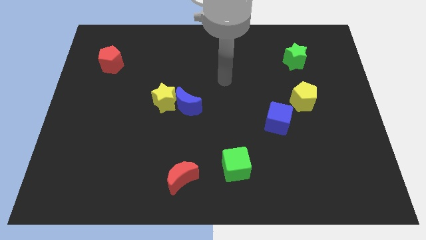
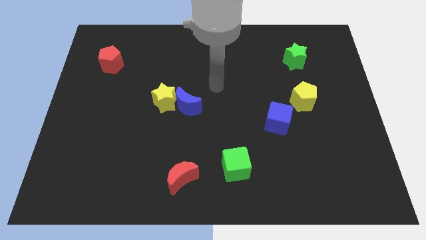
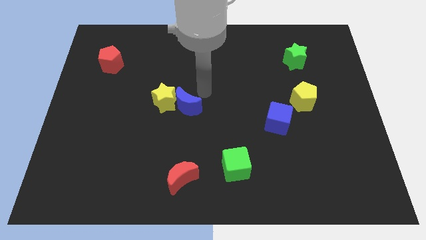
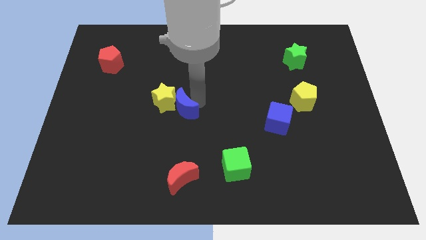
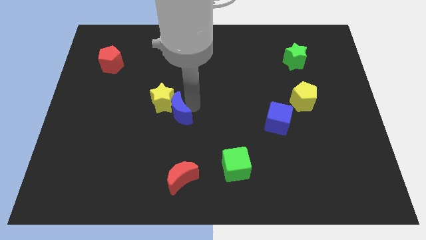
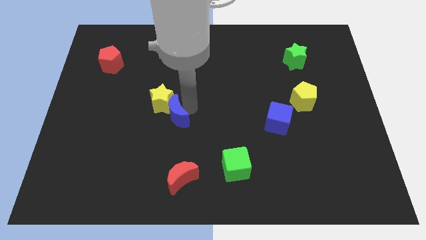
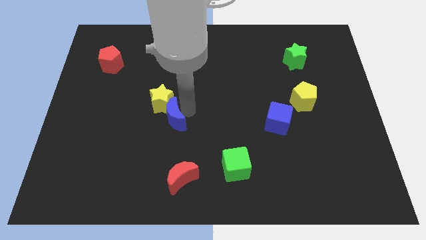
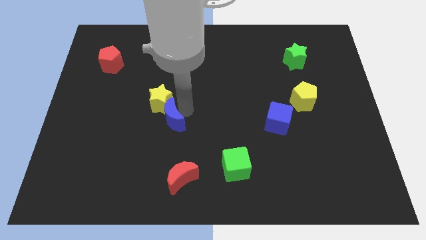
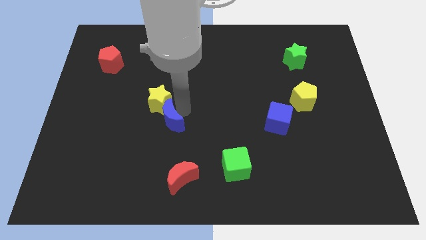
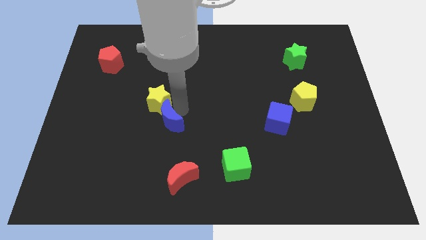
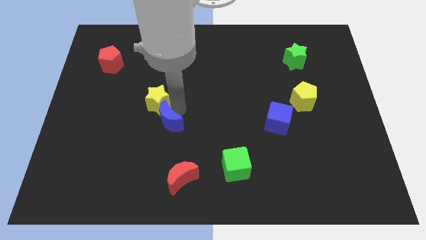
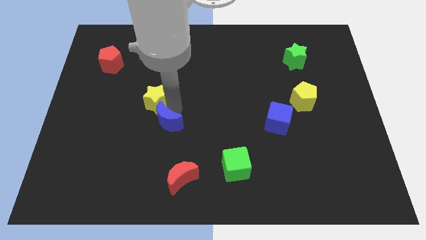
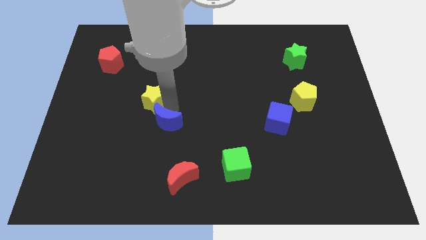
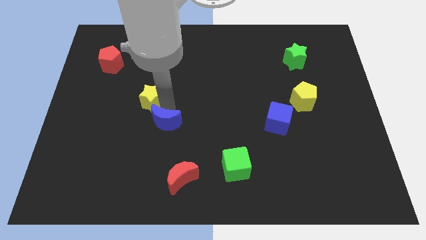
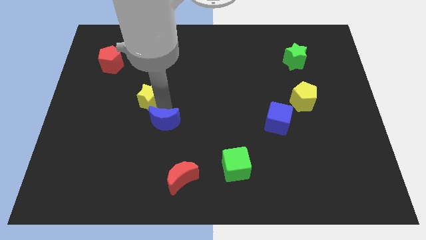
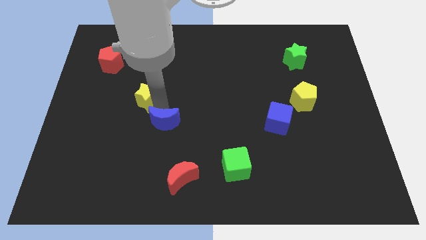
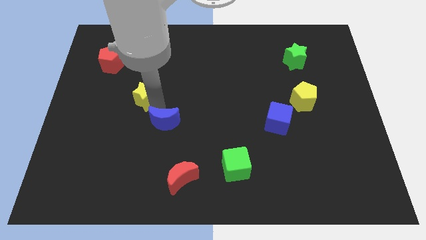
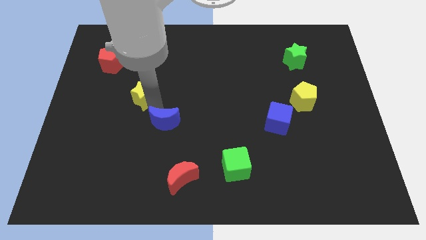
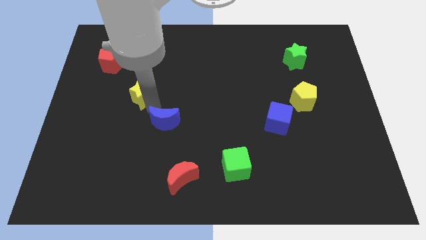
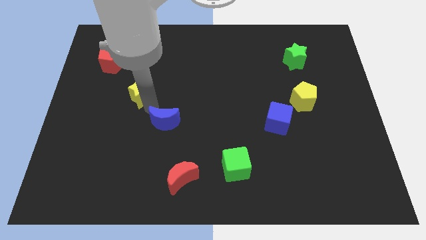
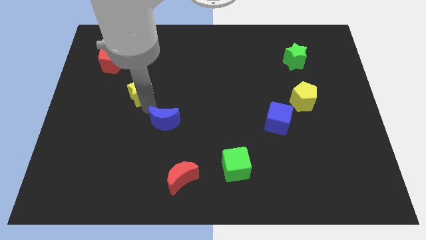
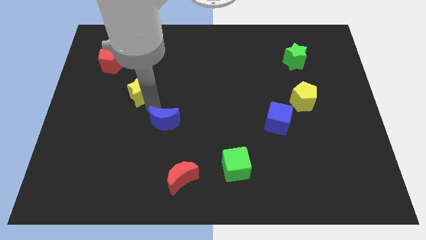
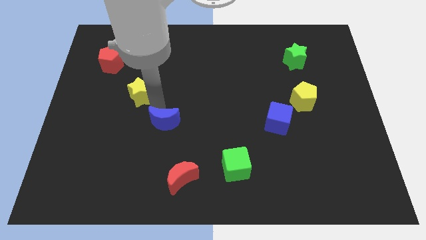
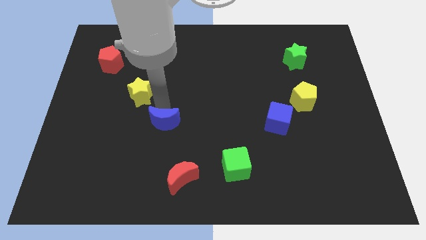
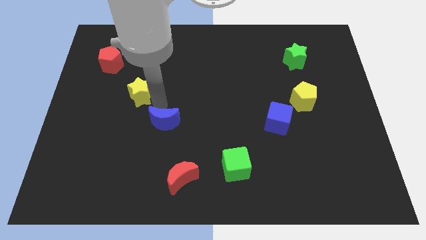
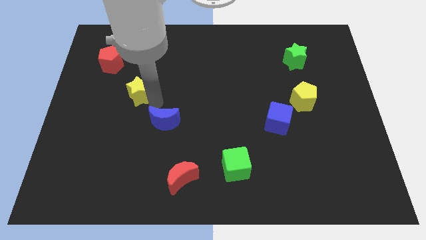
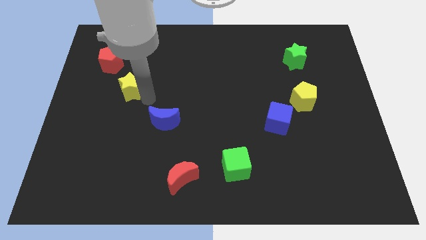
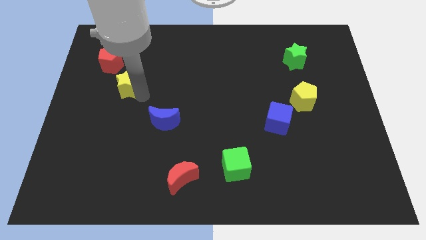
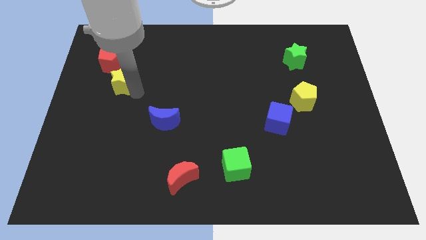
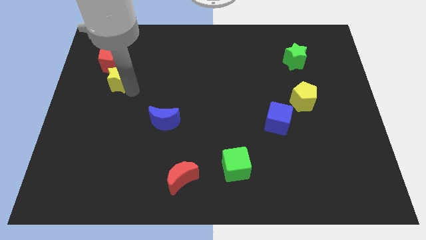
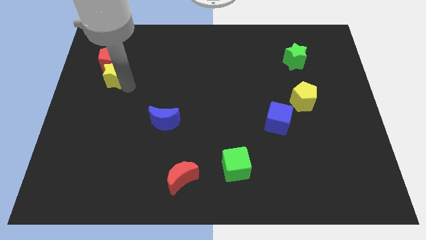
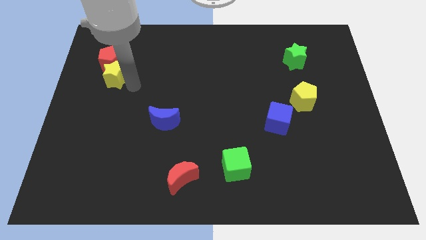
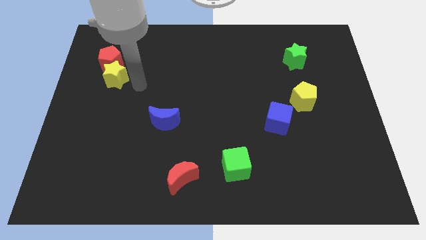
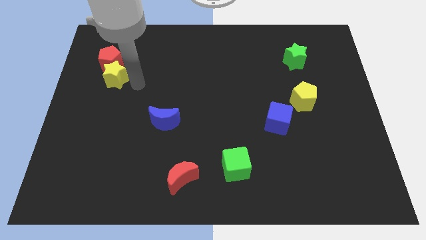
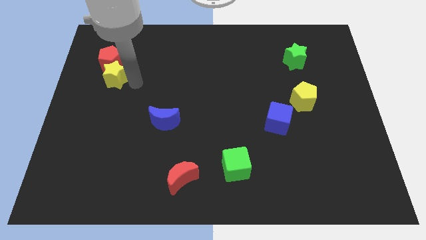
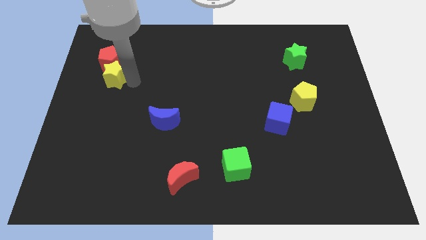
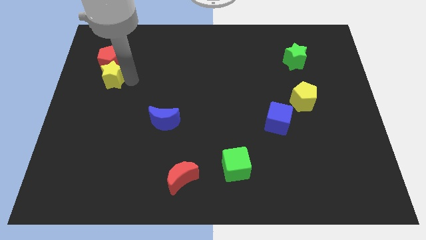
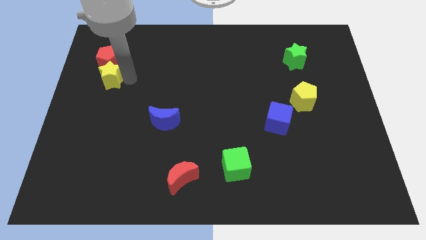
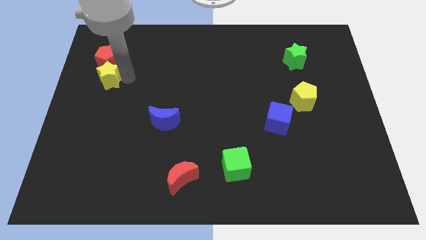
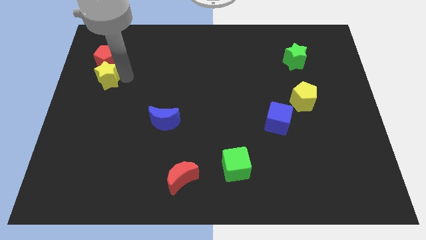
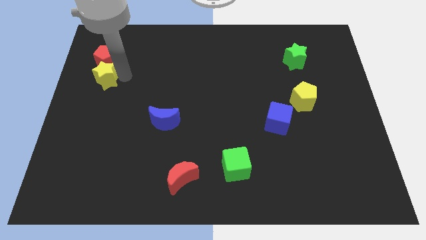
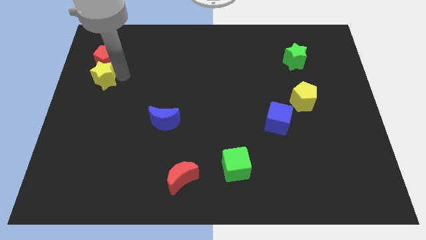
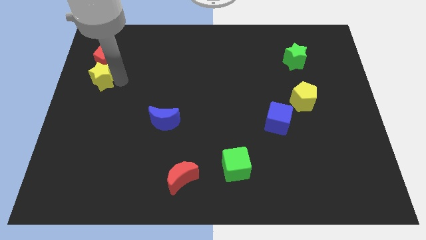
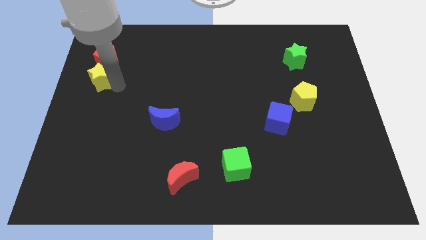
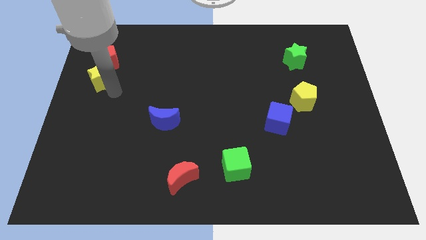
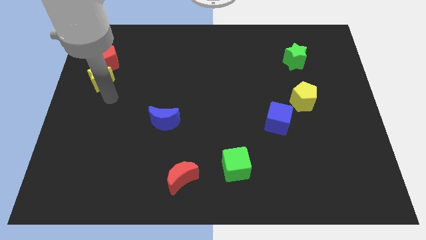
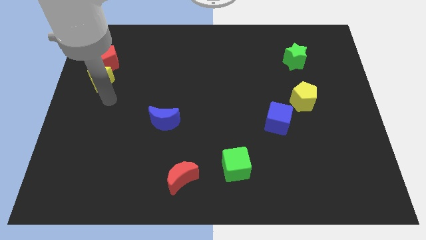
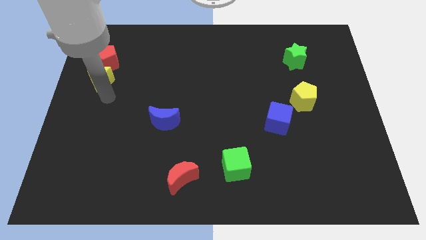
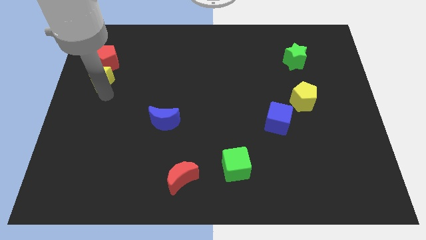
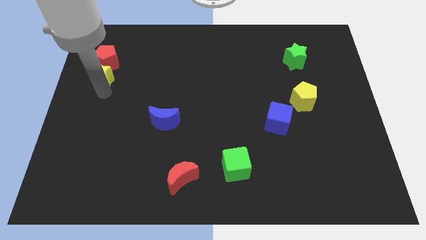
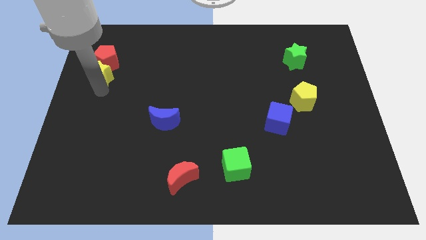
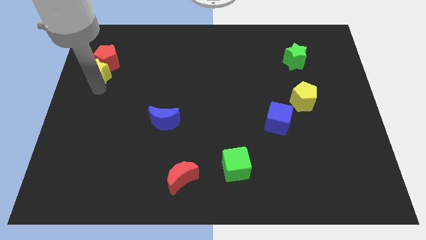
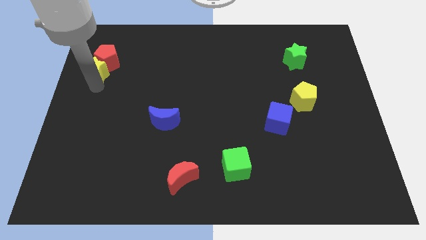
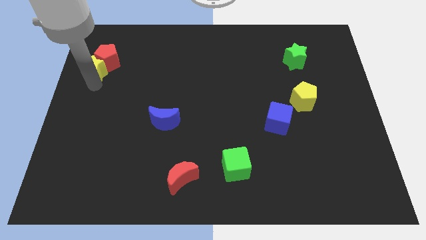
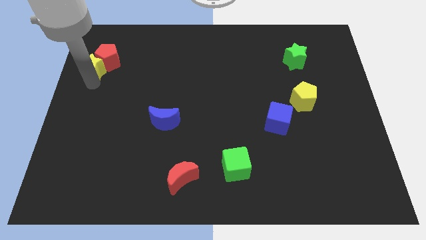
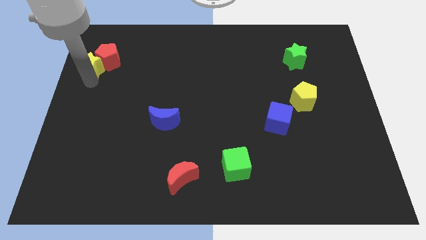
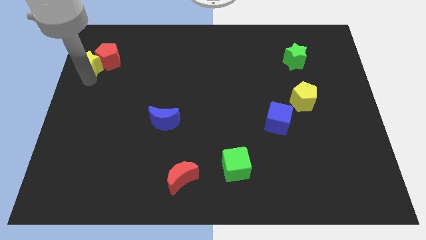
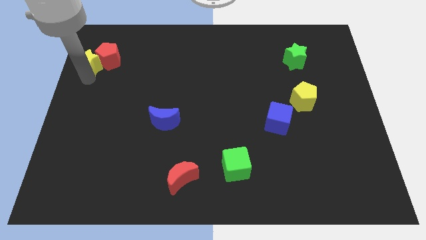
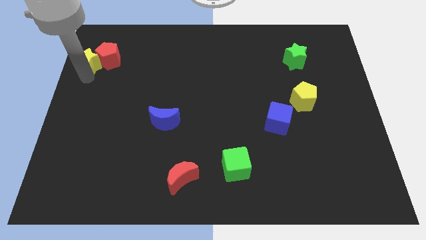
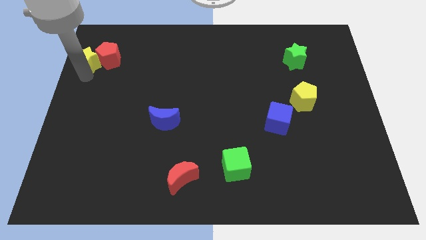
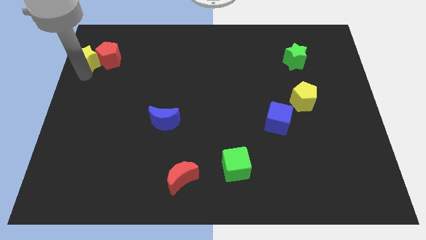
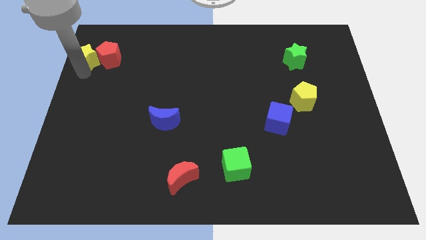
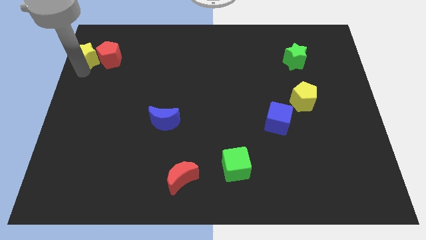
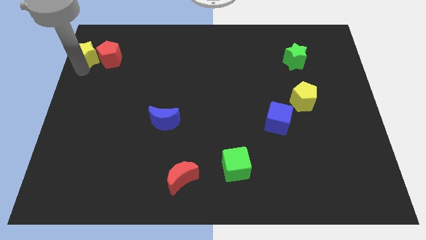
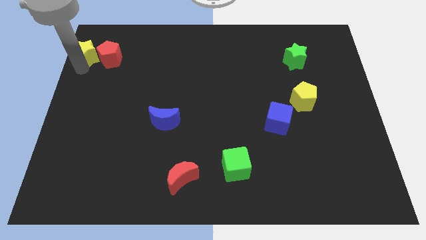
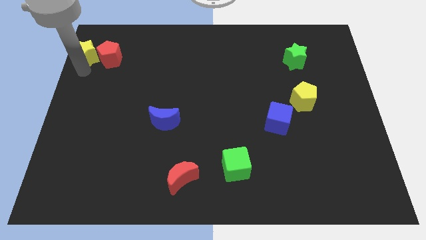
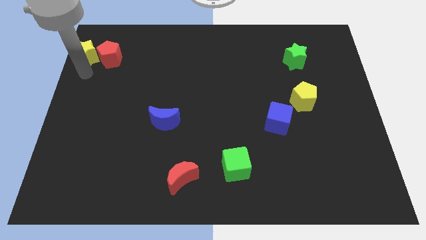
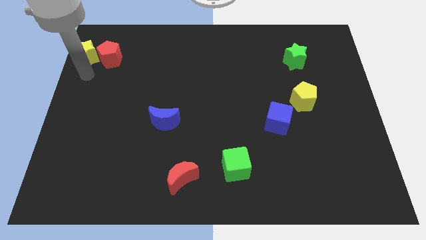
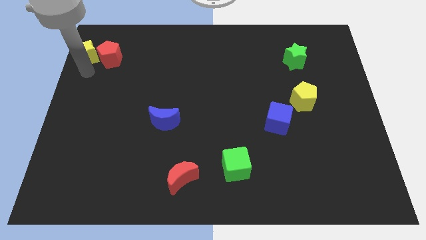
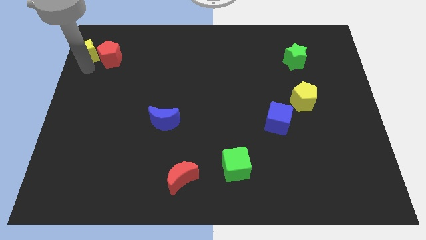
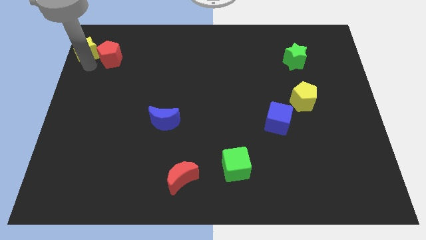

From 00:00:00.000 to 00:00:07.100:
push the yellow star to the top left corner
